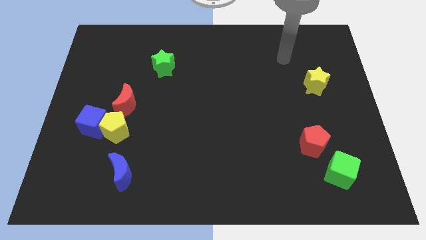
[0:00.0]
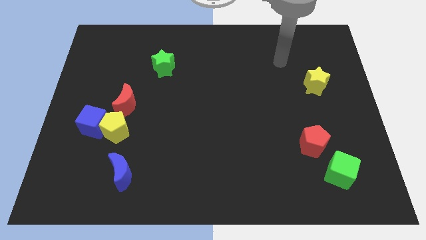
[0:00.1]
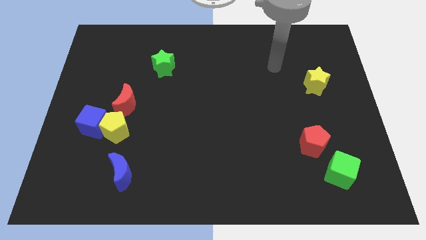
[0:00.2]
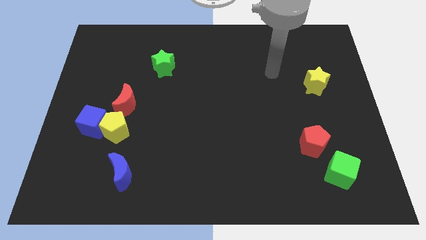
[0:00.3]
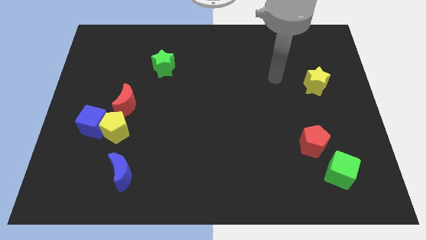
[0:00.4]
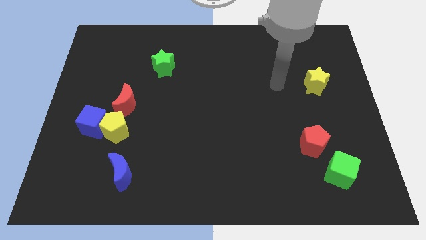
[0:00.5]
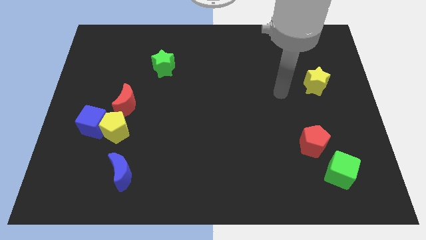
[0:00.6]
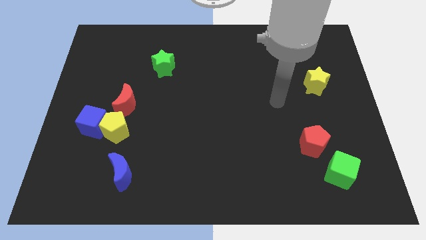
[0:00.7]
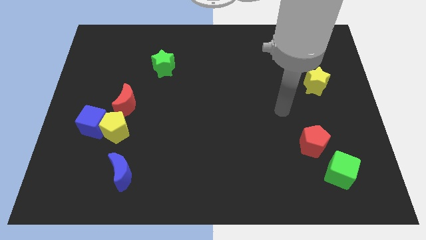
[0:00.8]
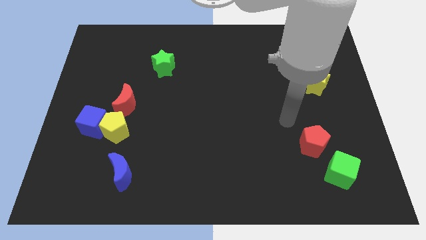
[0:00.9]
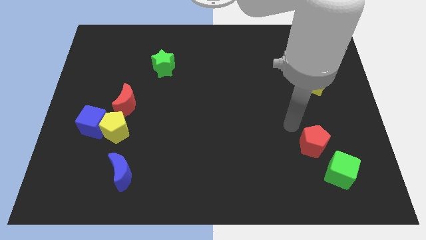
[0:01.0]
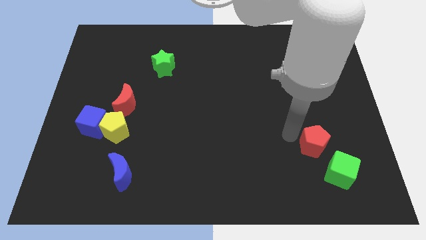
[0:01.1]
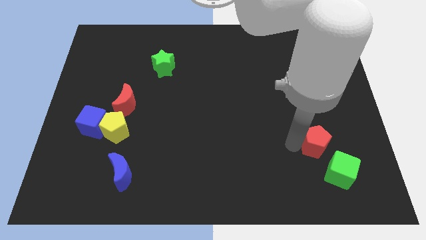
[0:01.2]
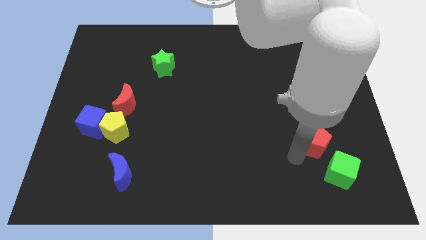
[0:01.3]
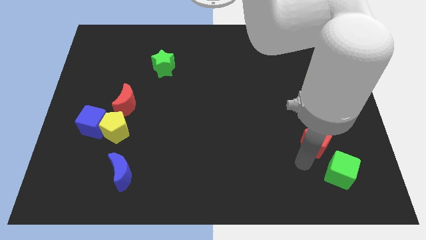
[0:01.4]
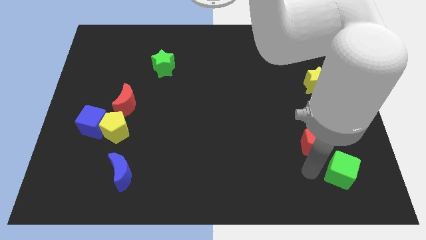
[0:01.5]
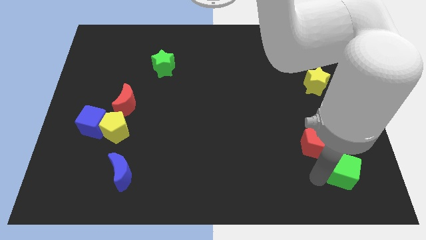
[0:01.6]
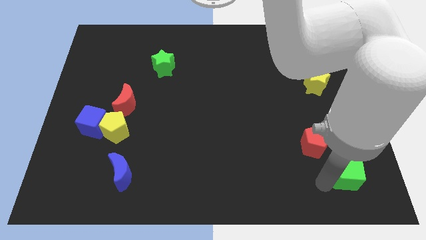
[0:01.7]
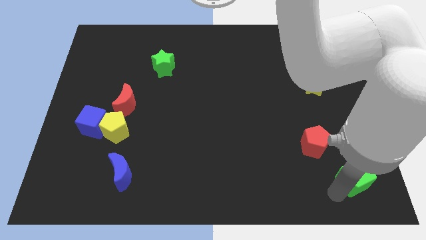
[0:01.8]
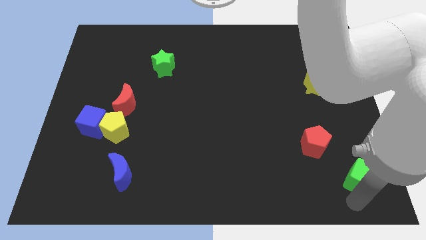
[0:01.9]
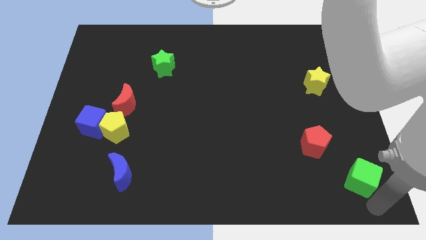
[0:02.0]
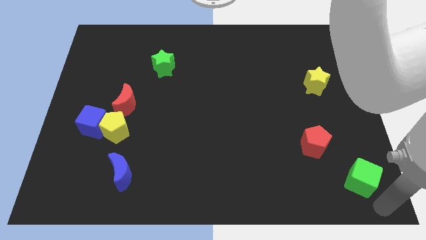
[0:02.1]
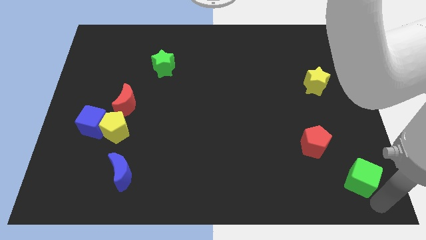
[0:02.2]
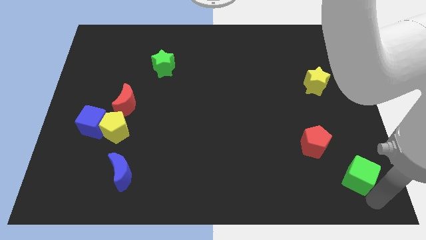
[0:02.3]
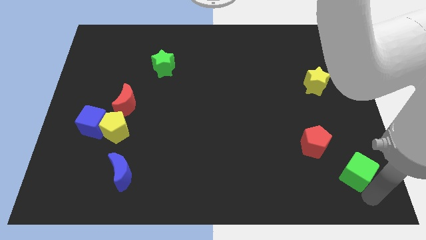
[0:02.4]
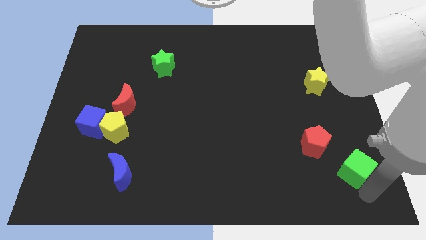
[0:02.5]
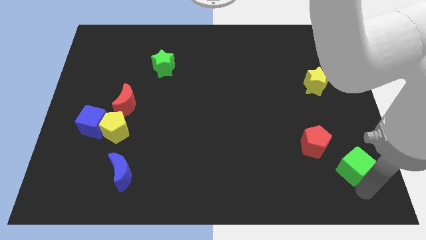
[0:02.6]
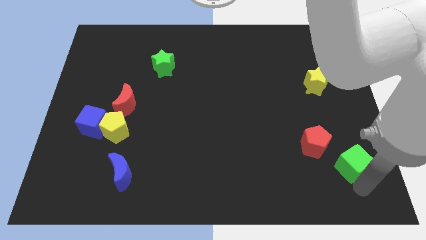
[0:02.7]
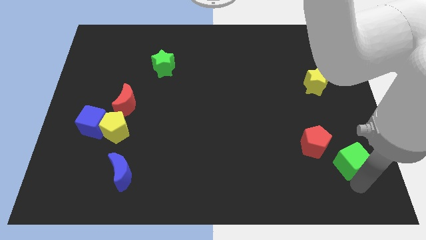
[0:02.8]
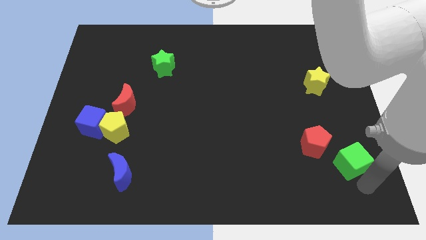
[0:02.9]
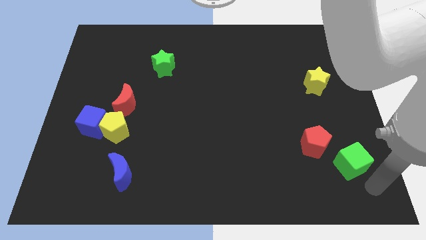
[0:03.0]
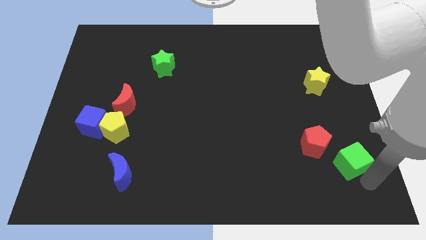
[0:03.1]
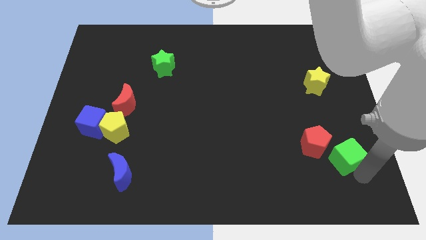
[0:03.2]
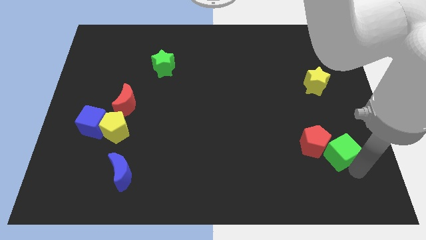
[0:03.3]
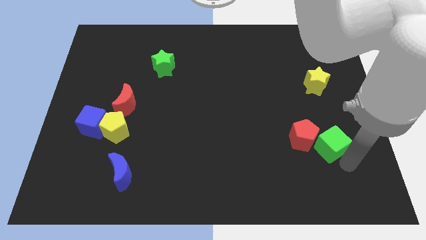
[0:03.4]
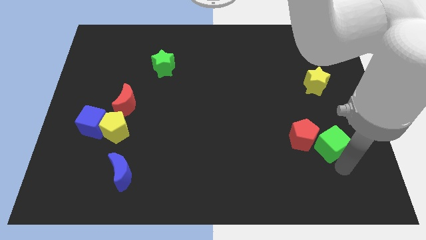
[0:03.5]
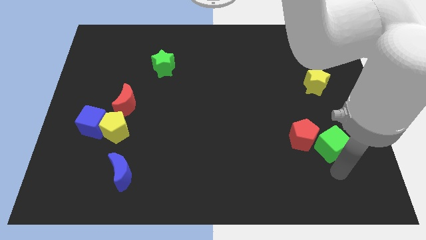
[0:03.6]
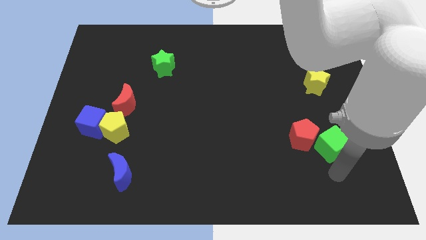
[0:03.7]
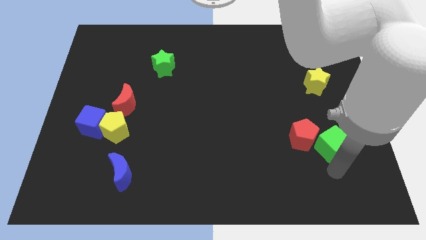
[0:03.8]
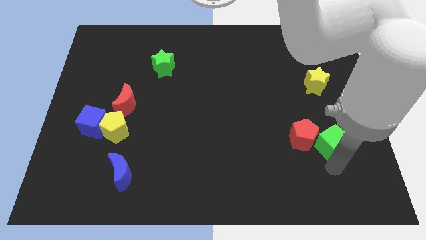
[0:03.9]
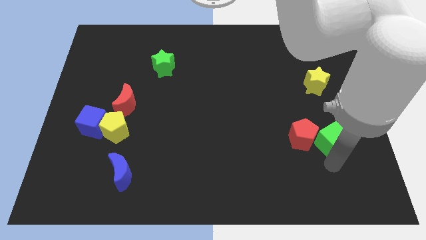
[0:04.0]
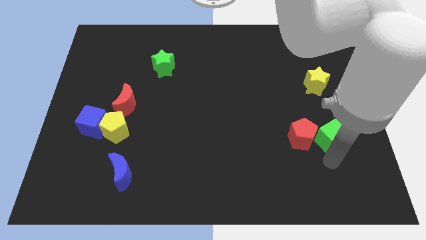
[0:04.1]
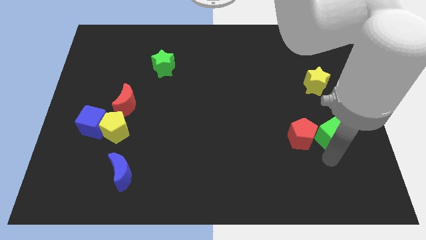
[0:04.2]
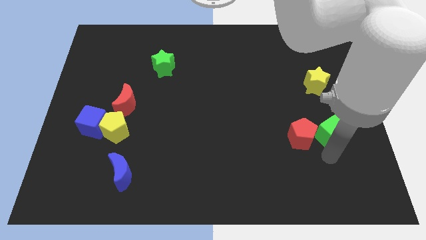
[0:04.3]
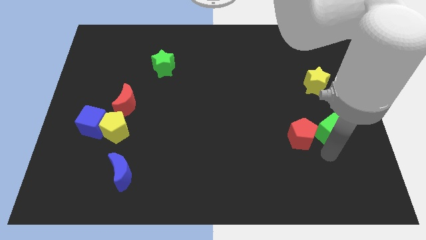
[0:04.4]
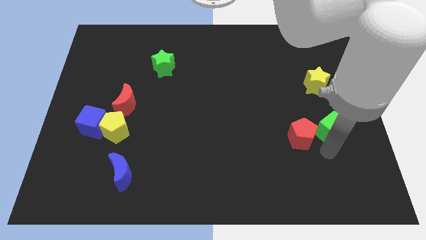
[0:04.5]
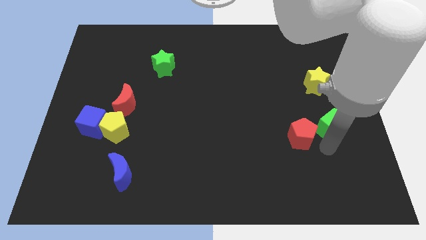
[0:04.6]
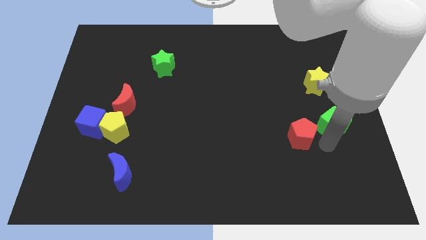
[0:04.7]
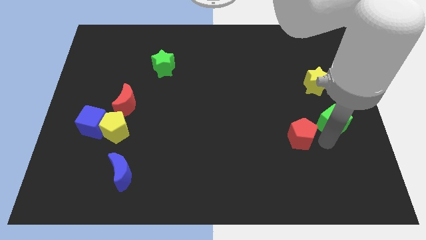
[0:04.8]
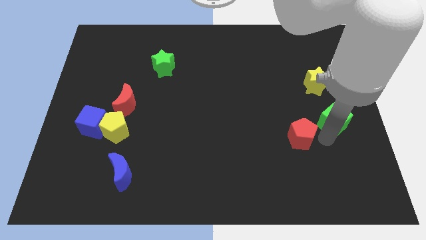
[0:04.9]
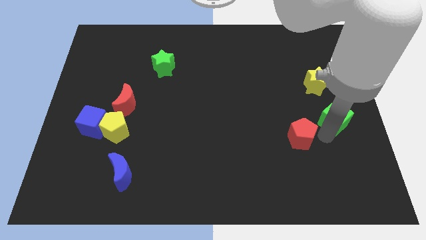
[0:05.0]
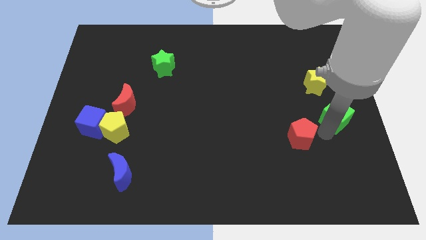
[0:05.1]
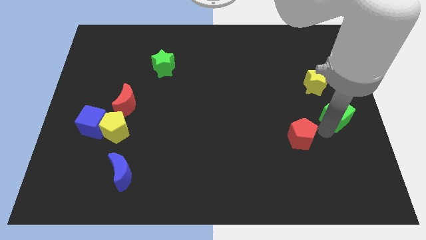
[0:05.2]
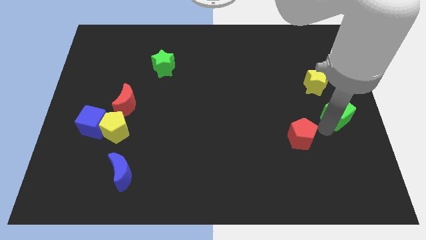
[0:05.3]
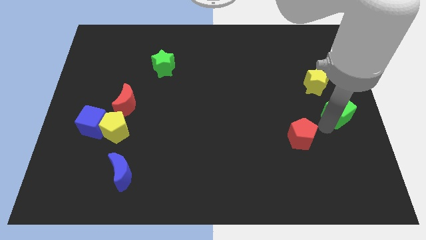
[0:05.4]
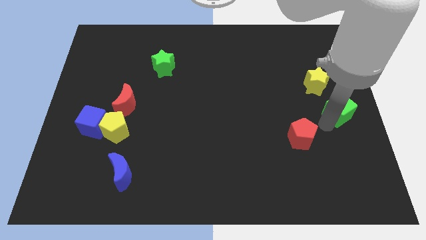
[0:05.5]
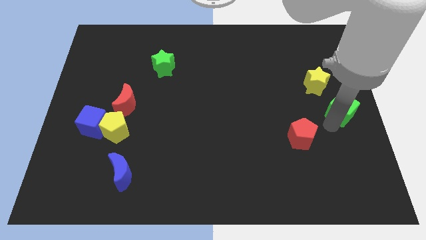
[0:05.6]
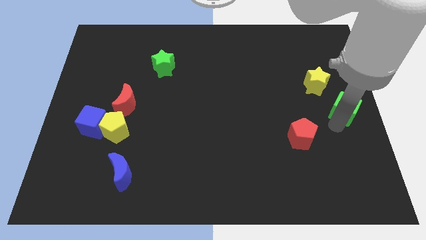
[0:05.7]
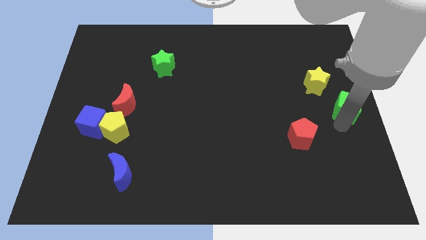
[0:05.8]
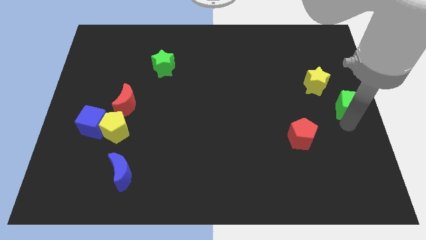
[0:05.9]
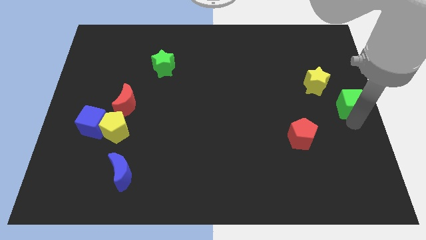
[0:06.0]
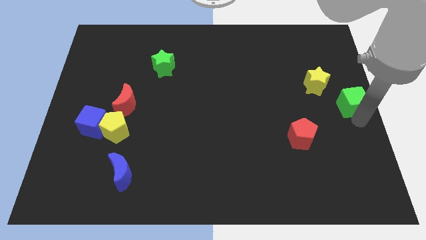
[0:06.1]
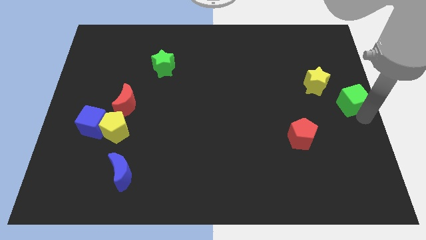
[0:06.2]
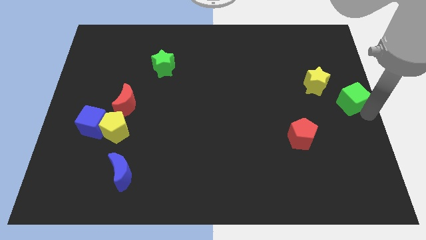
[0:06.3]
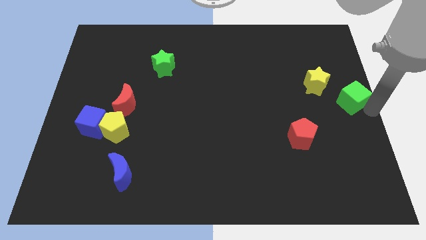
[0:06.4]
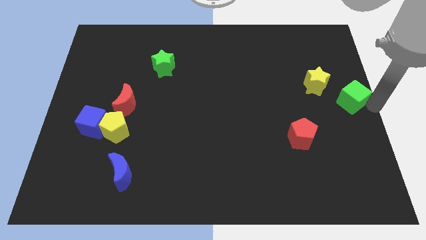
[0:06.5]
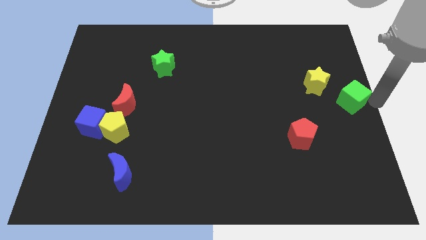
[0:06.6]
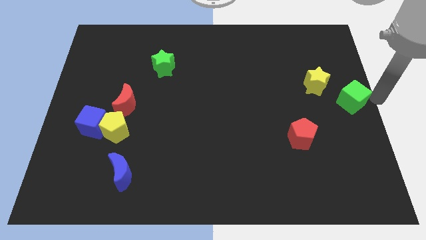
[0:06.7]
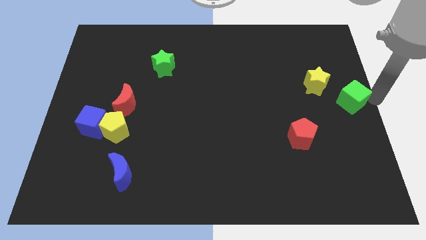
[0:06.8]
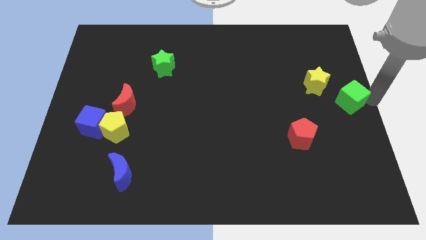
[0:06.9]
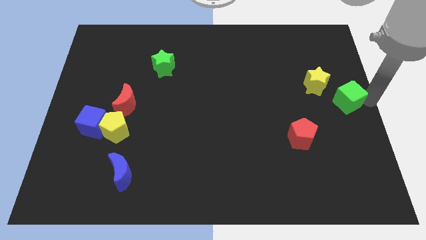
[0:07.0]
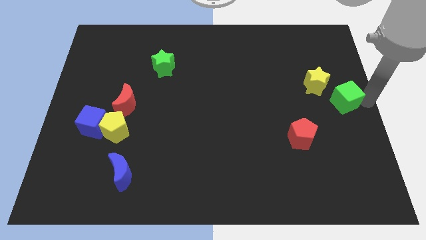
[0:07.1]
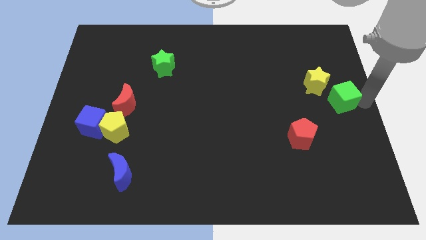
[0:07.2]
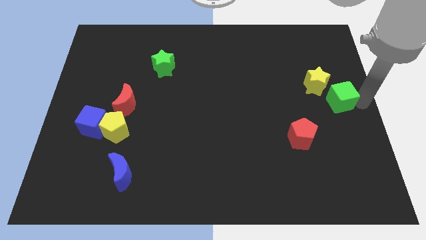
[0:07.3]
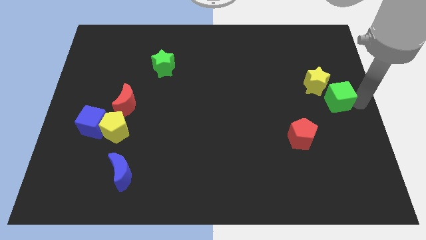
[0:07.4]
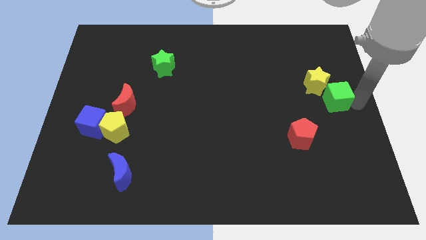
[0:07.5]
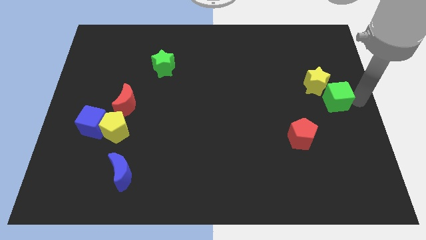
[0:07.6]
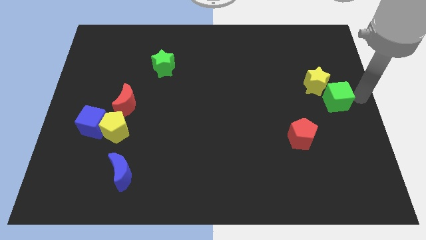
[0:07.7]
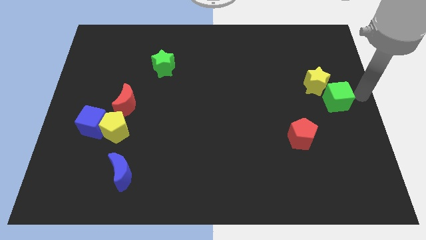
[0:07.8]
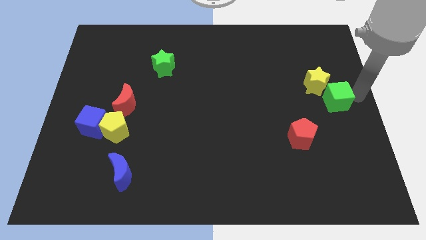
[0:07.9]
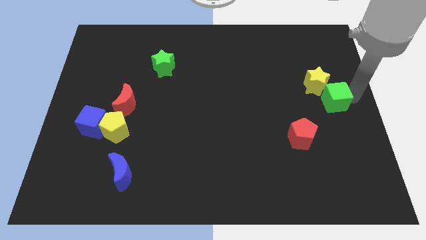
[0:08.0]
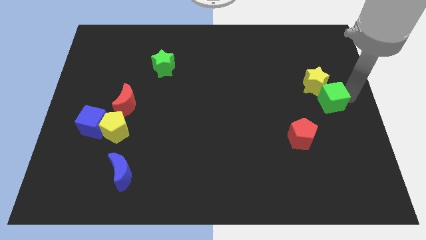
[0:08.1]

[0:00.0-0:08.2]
push the green cube towards the yellow star
